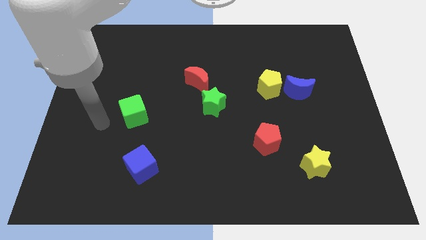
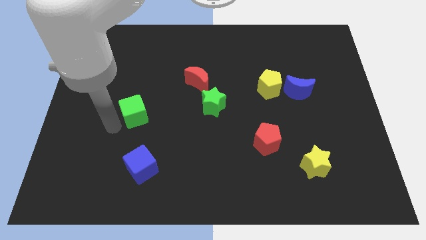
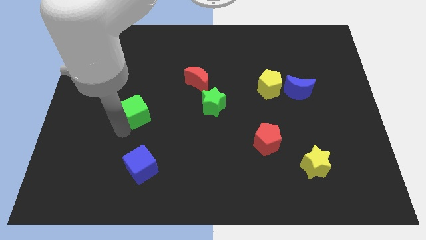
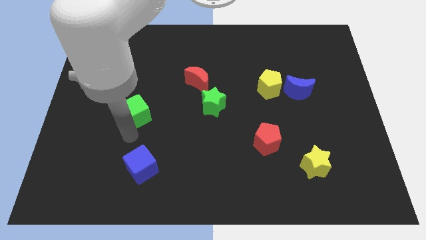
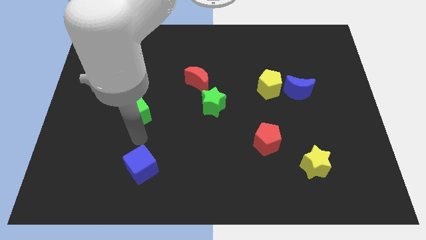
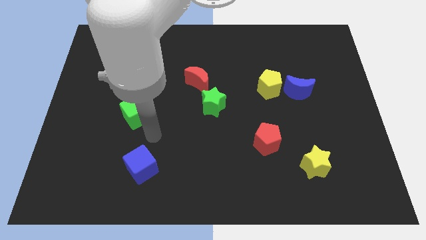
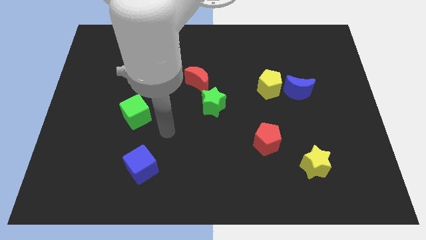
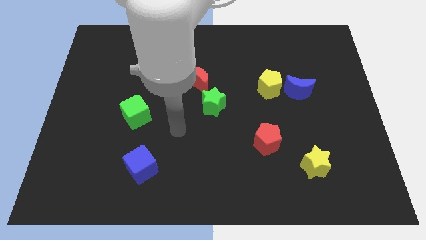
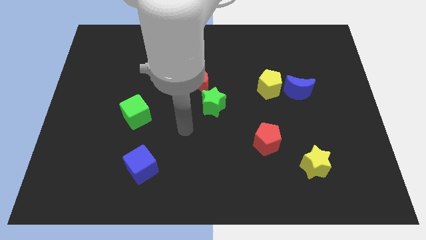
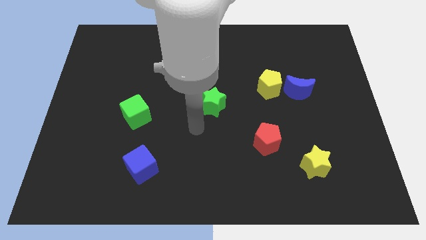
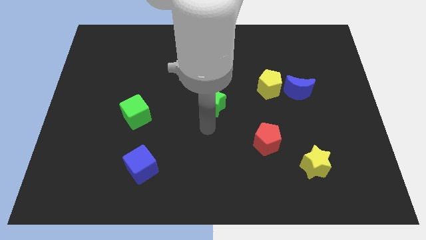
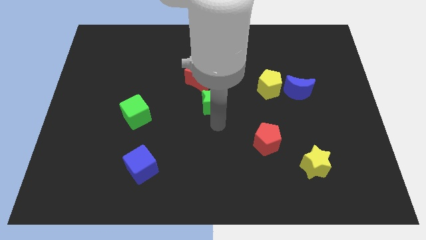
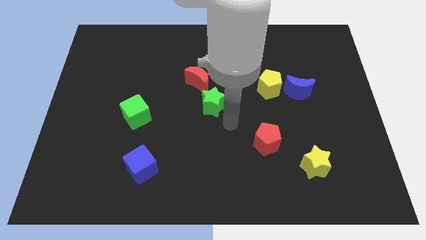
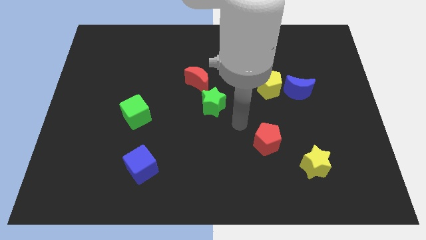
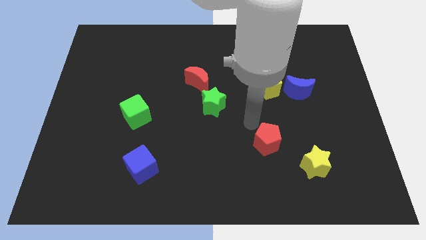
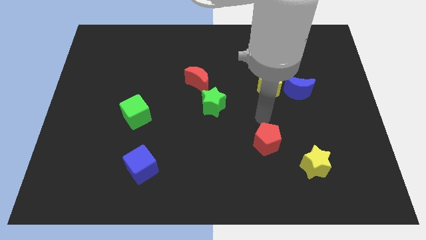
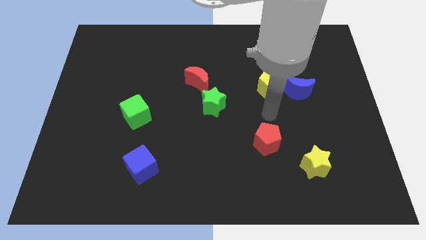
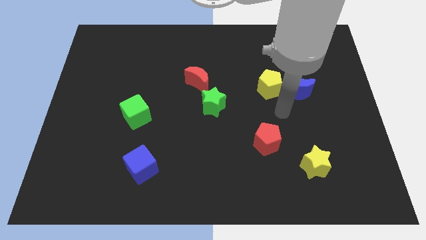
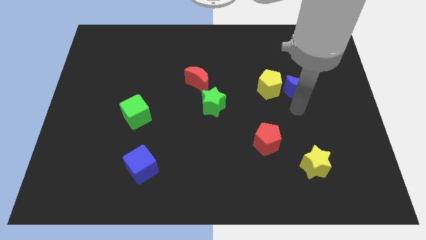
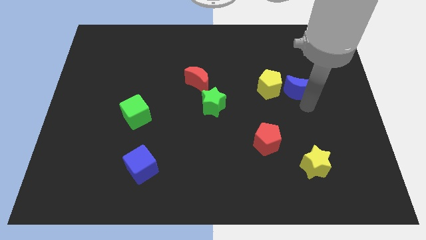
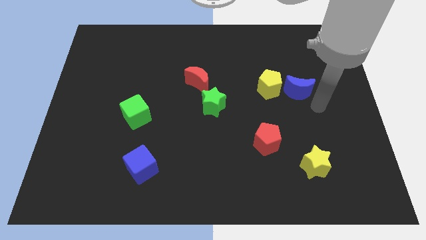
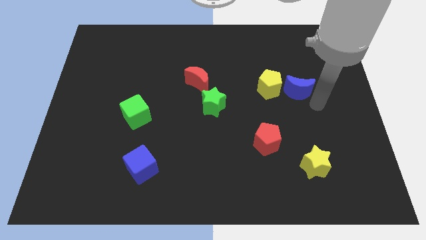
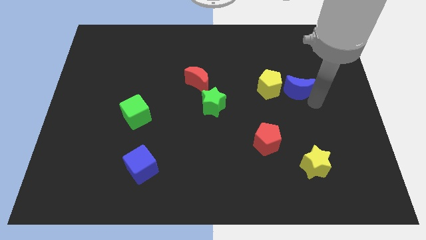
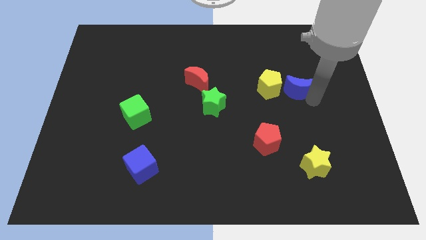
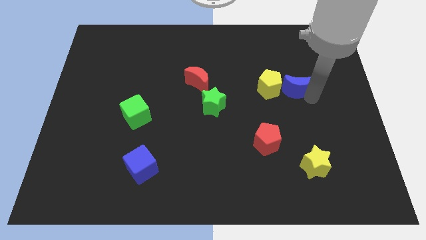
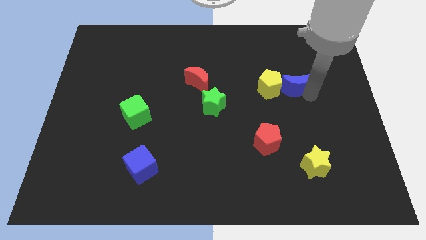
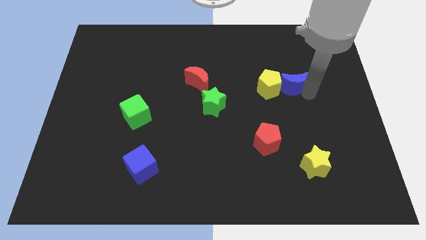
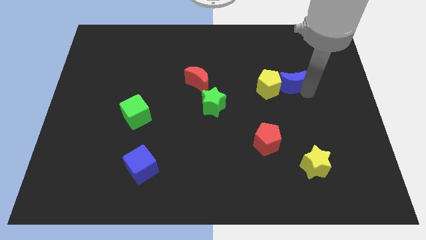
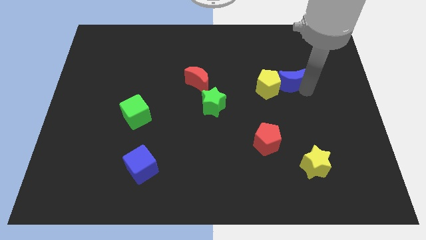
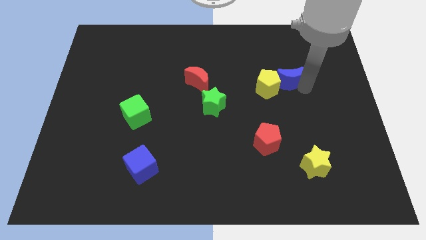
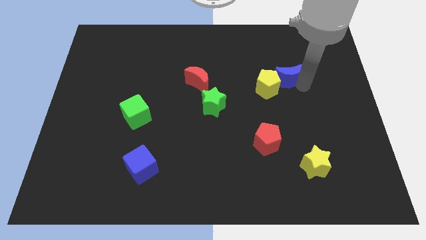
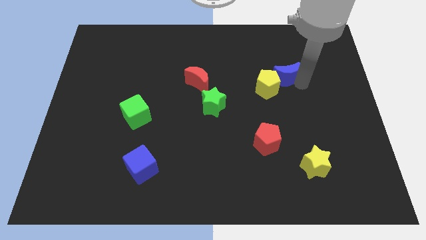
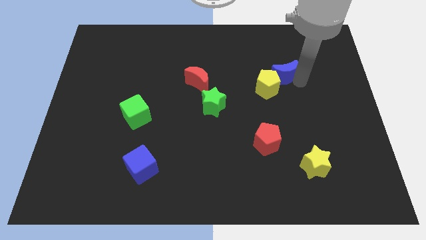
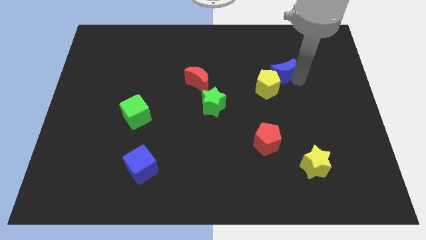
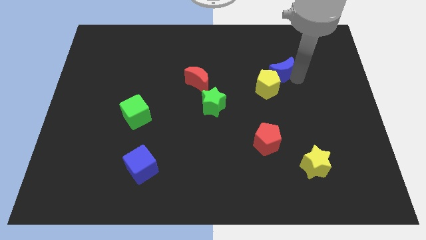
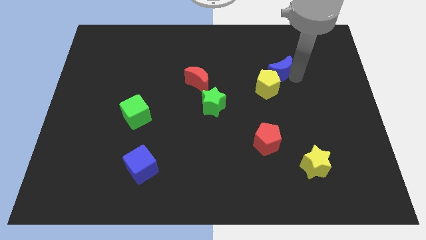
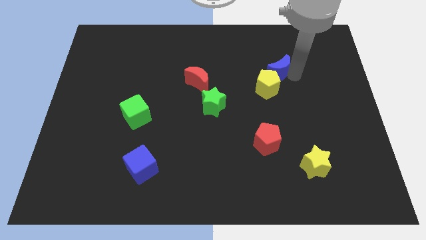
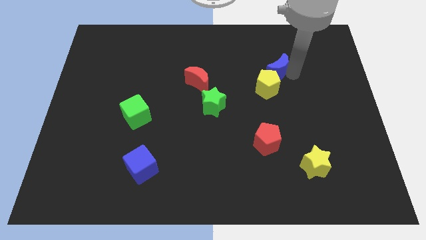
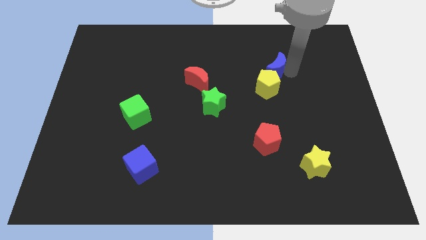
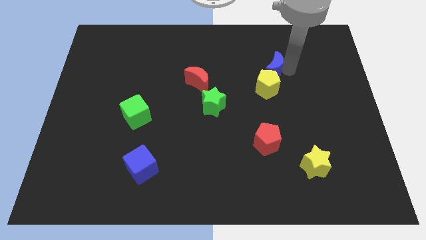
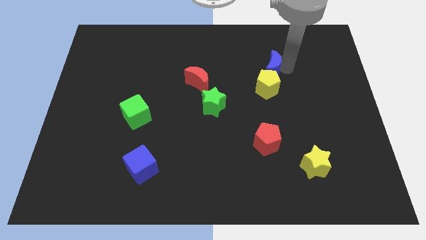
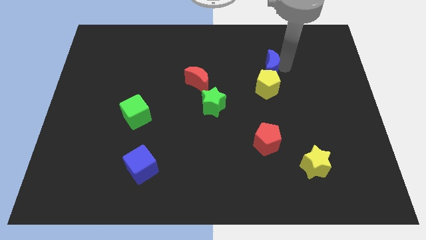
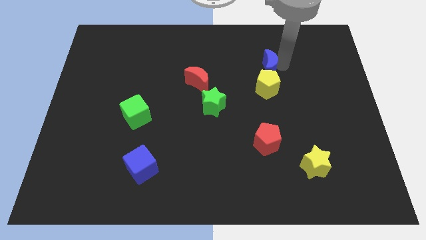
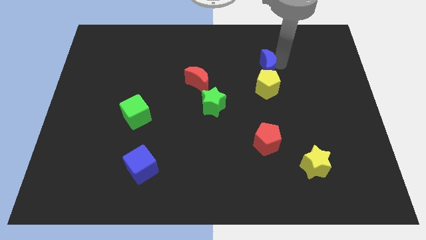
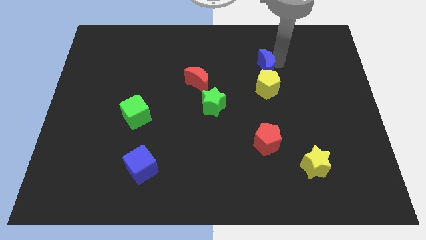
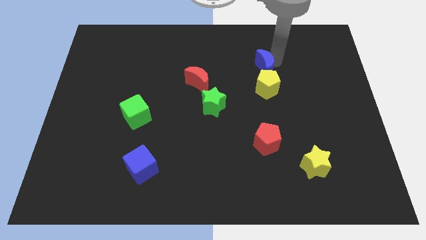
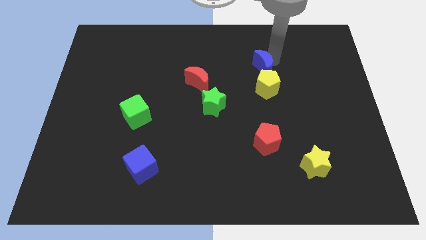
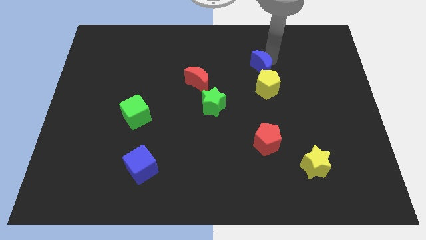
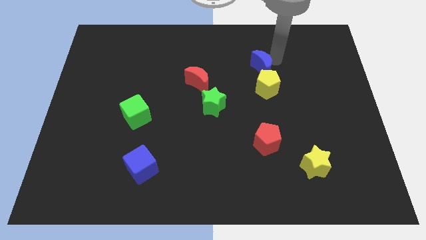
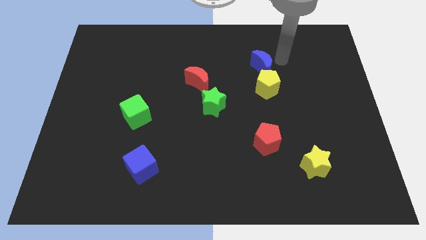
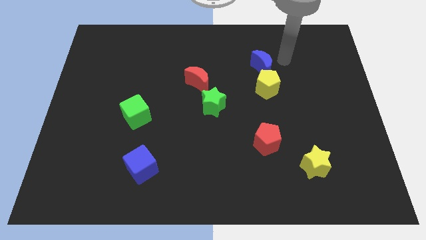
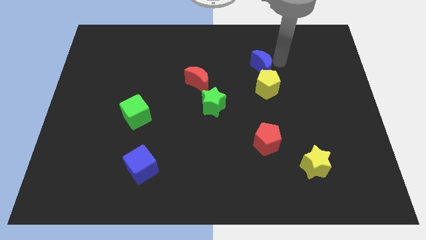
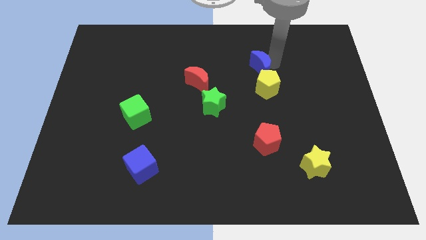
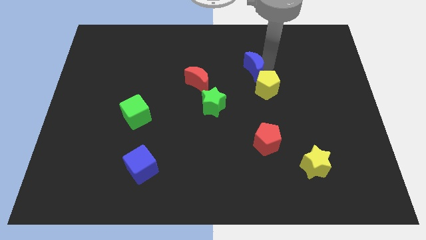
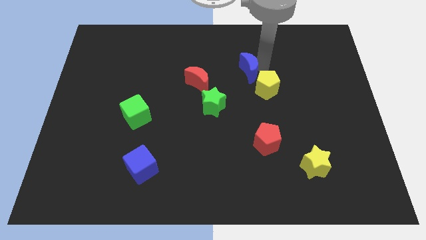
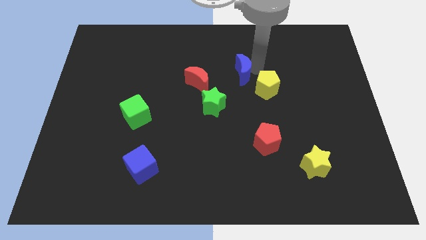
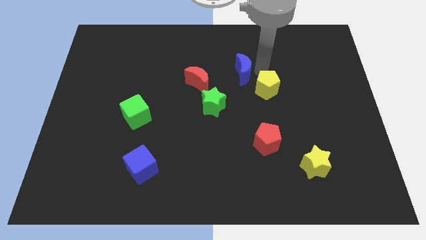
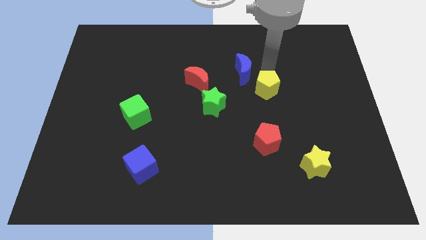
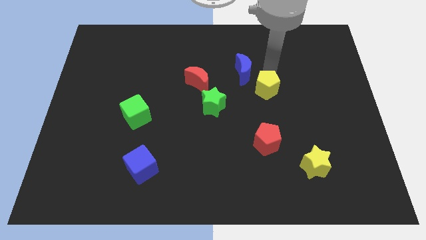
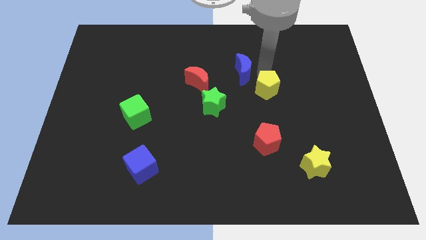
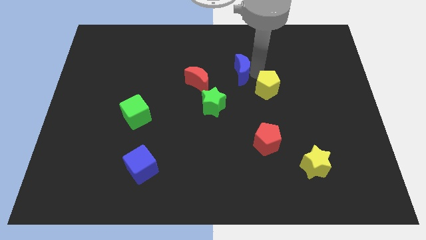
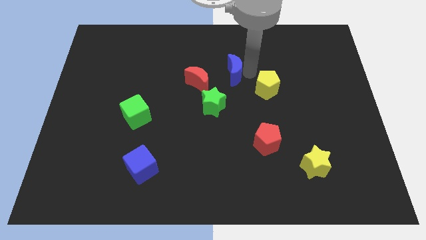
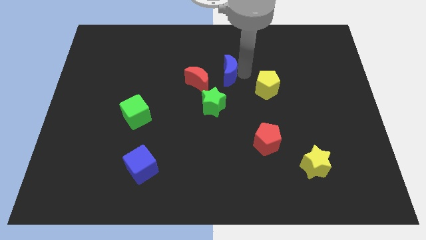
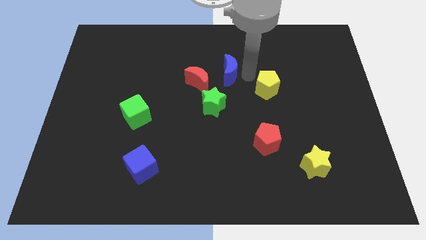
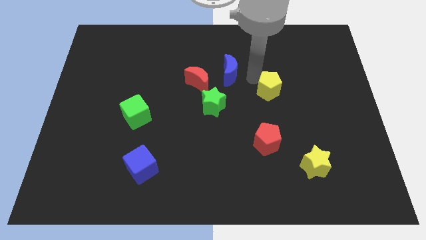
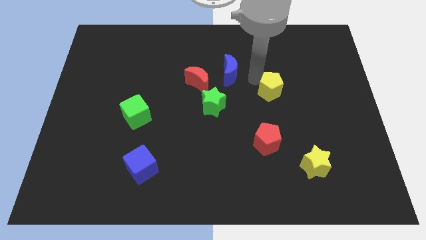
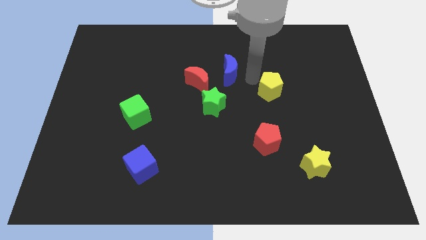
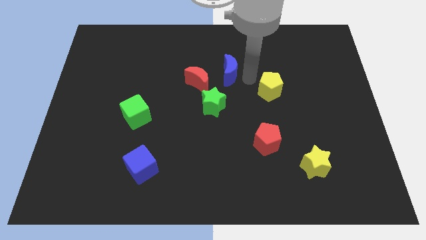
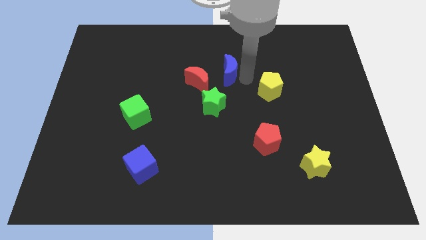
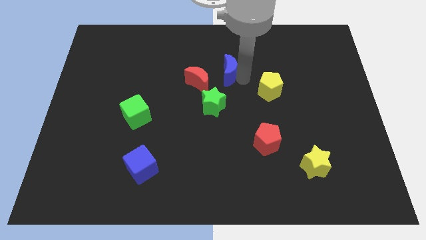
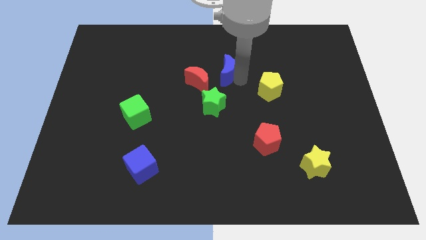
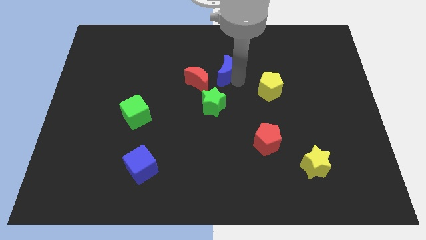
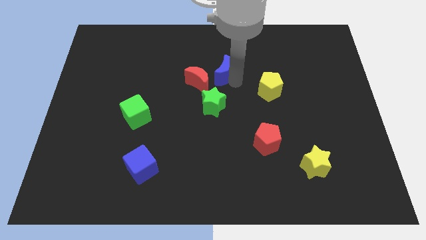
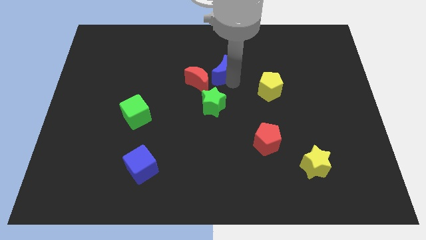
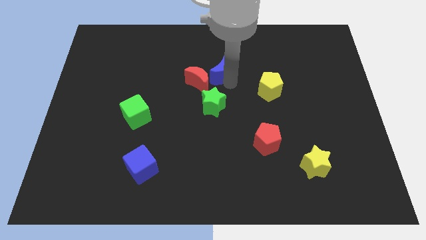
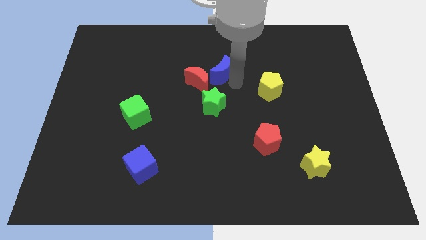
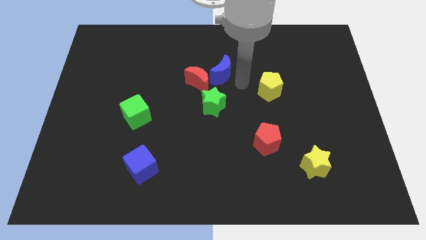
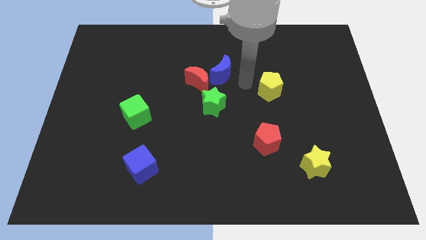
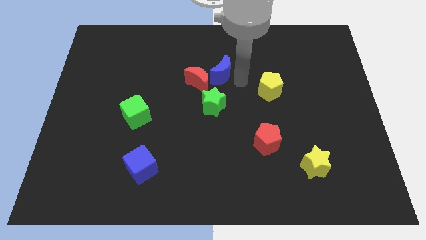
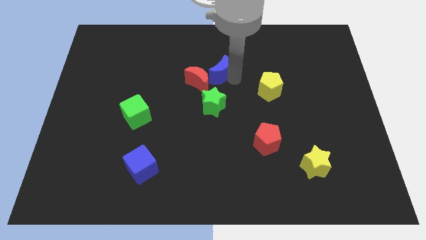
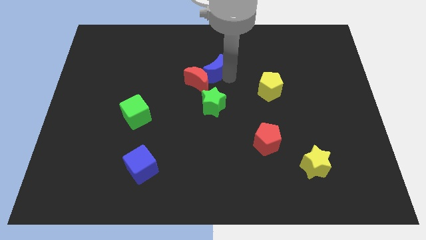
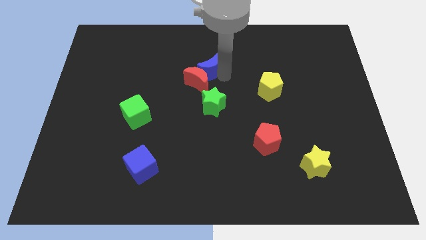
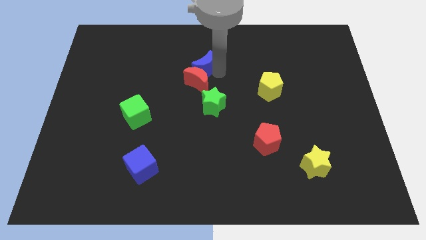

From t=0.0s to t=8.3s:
move the blue moon to the left
